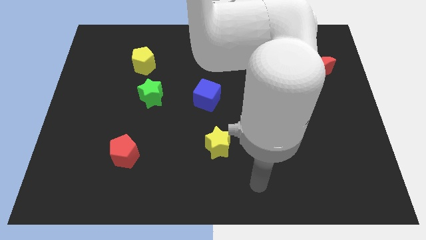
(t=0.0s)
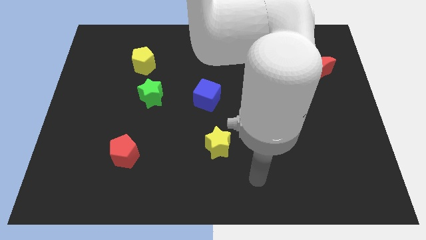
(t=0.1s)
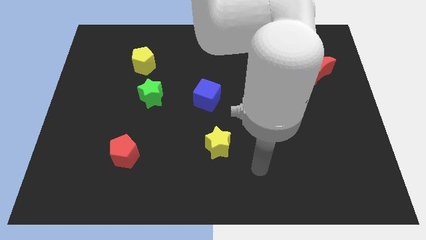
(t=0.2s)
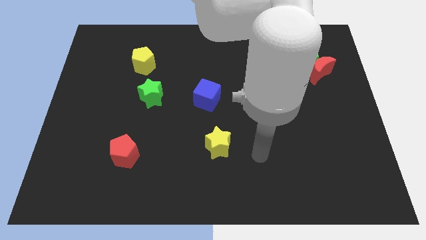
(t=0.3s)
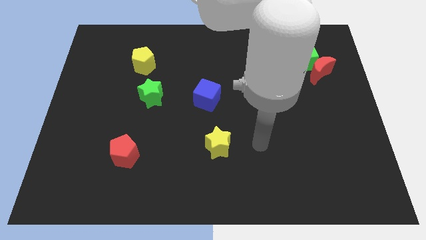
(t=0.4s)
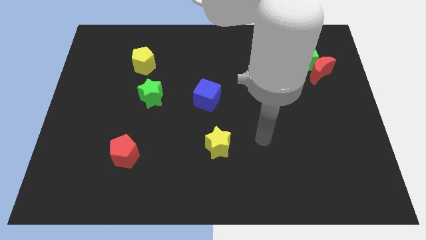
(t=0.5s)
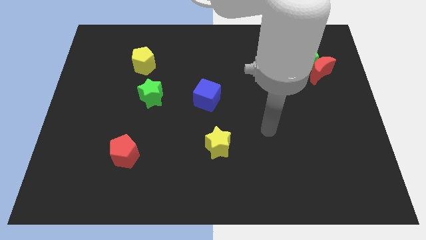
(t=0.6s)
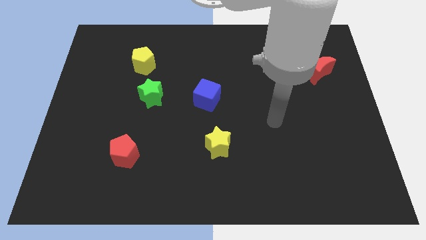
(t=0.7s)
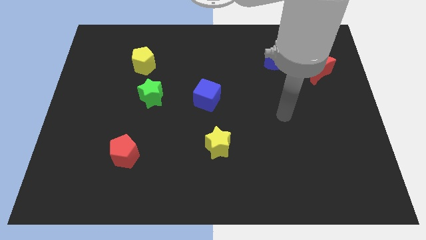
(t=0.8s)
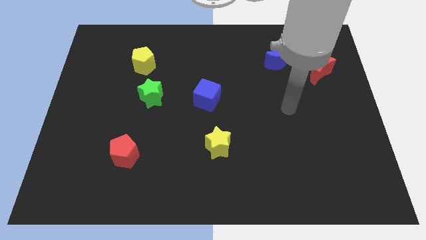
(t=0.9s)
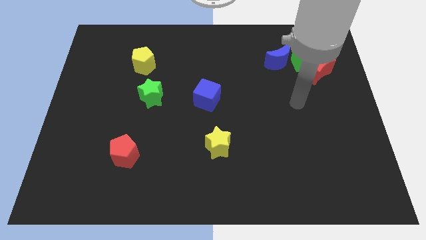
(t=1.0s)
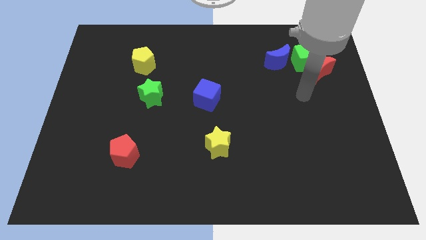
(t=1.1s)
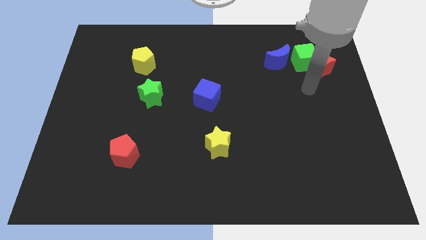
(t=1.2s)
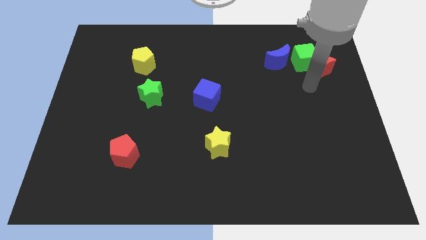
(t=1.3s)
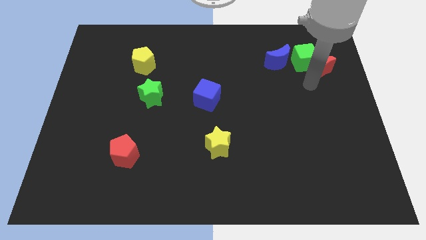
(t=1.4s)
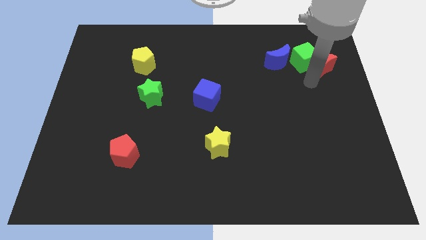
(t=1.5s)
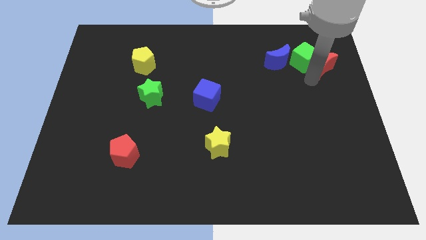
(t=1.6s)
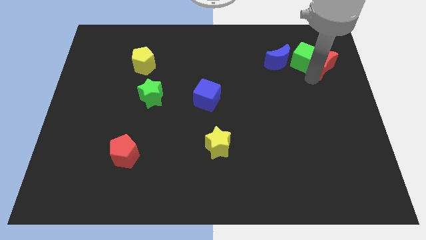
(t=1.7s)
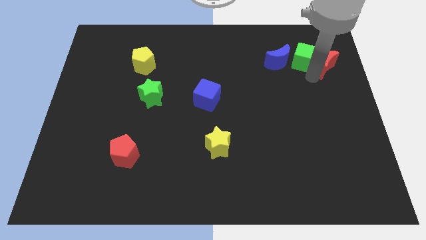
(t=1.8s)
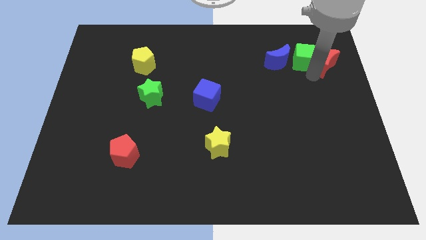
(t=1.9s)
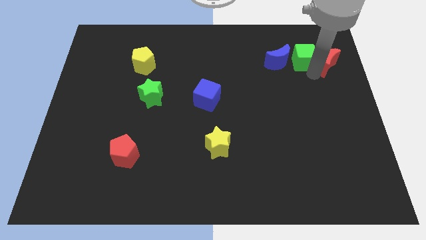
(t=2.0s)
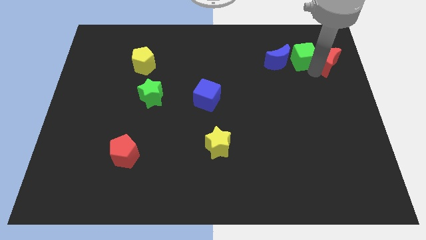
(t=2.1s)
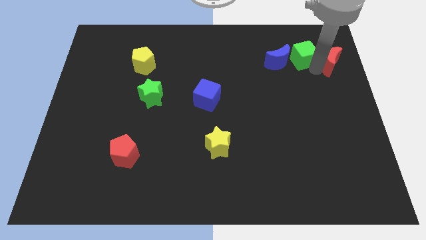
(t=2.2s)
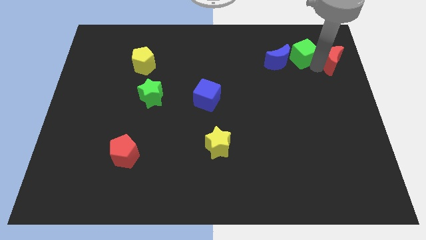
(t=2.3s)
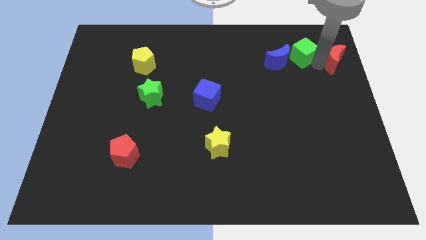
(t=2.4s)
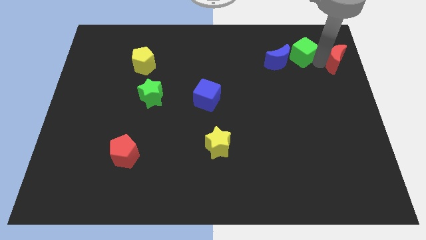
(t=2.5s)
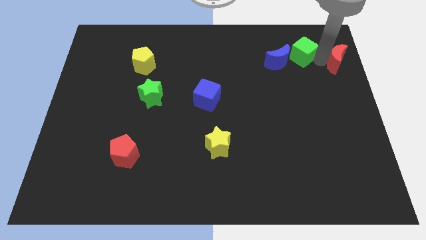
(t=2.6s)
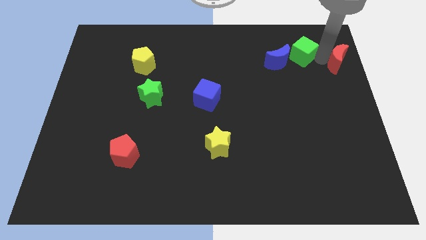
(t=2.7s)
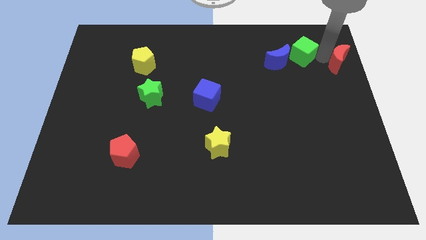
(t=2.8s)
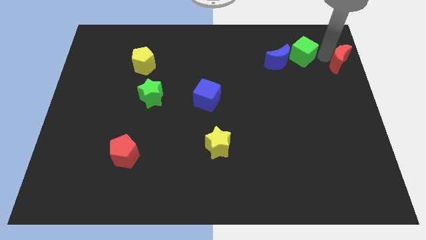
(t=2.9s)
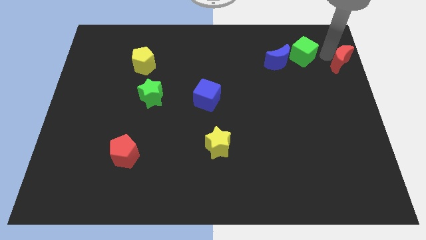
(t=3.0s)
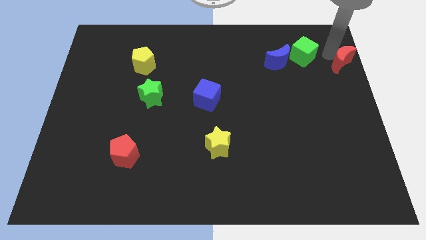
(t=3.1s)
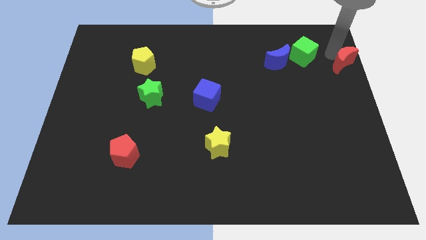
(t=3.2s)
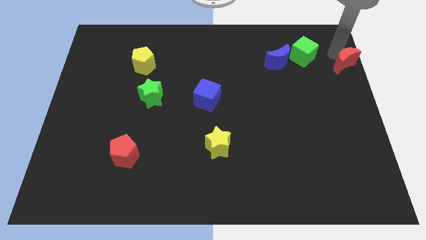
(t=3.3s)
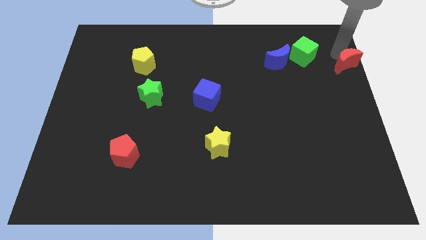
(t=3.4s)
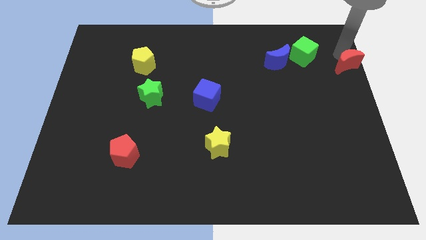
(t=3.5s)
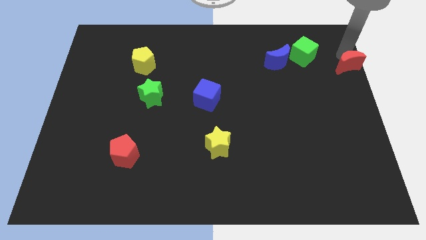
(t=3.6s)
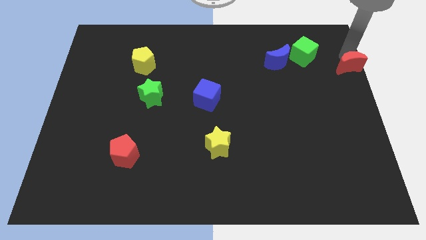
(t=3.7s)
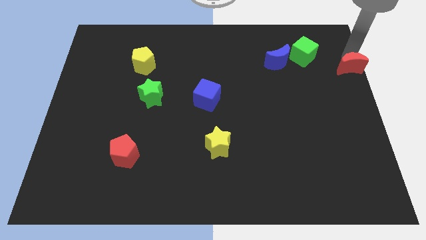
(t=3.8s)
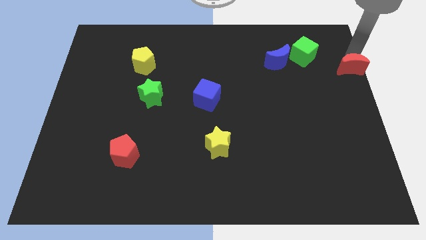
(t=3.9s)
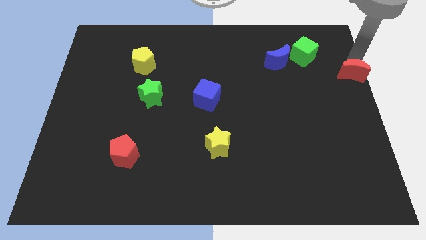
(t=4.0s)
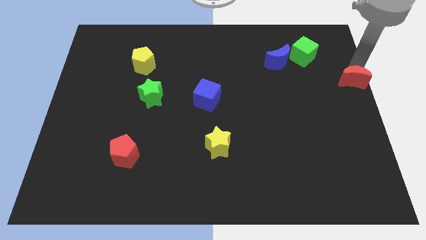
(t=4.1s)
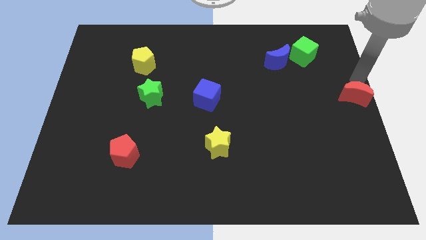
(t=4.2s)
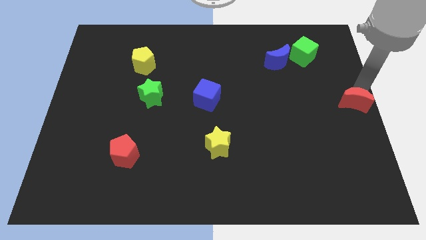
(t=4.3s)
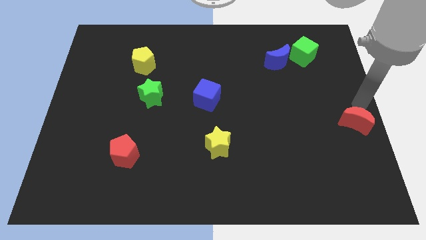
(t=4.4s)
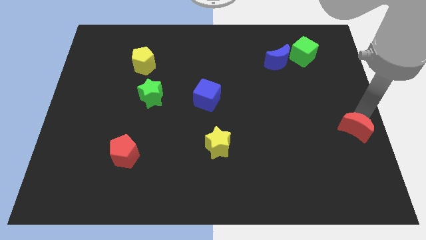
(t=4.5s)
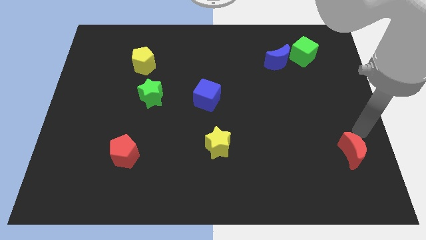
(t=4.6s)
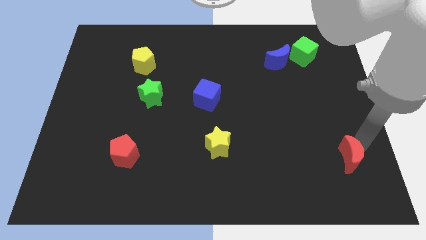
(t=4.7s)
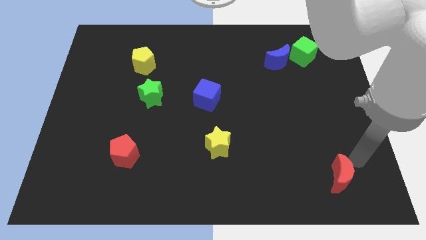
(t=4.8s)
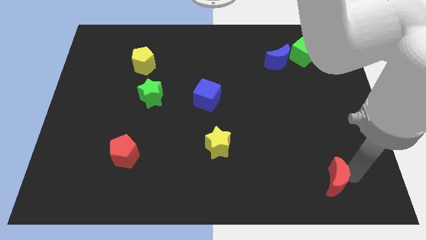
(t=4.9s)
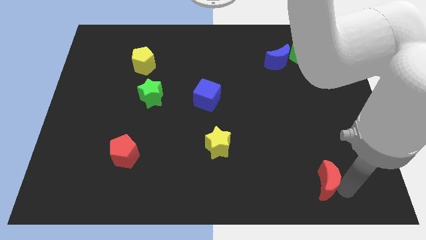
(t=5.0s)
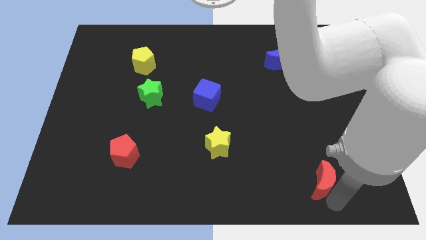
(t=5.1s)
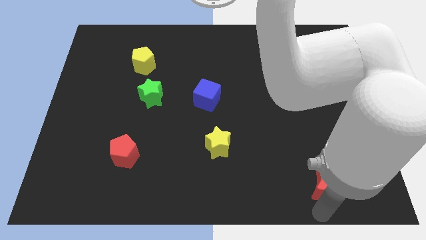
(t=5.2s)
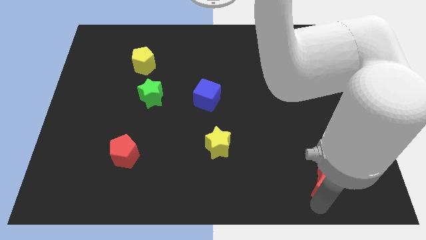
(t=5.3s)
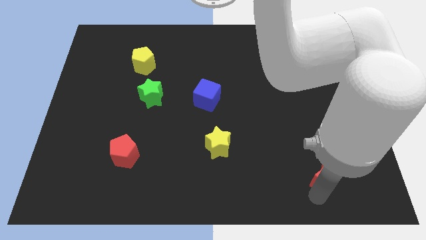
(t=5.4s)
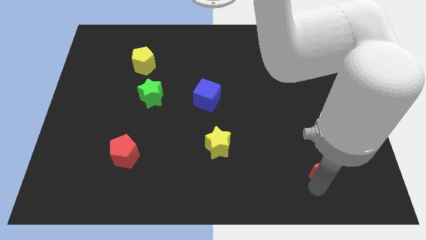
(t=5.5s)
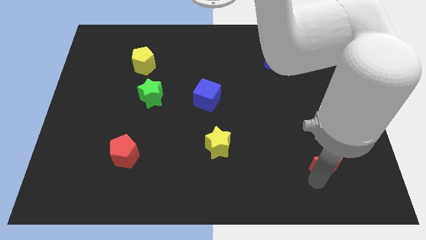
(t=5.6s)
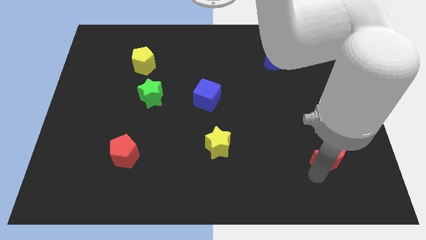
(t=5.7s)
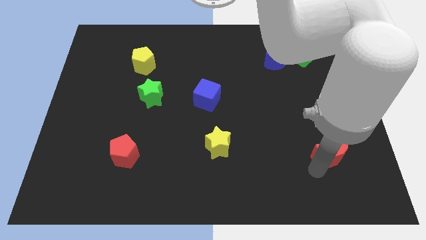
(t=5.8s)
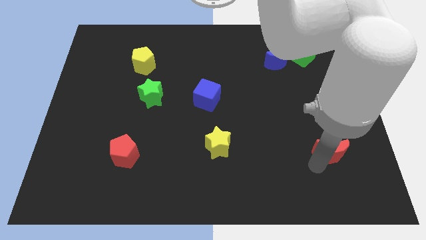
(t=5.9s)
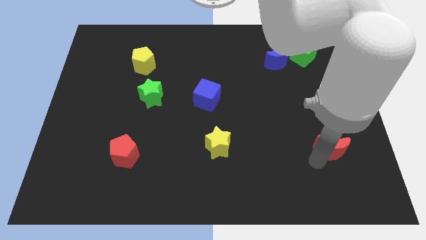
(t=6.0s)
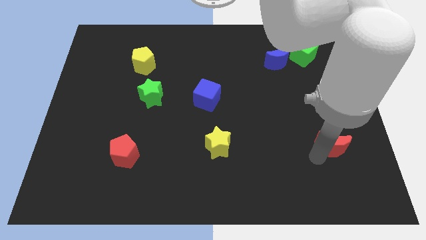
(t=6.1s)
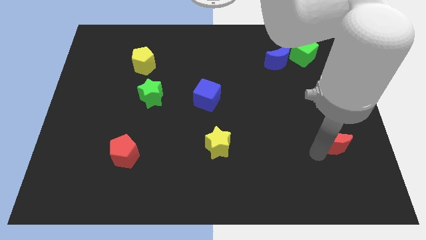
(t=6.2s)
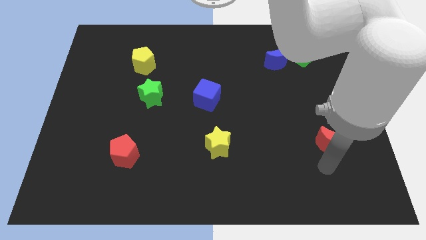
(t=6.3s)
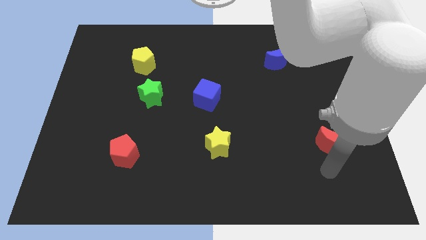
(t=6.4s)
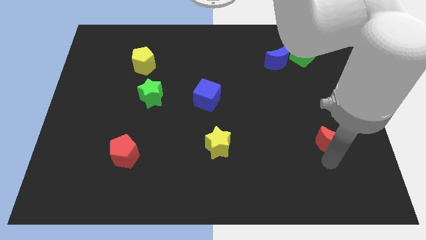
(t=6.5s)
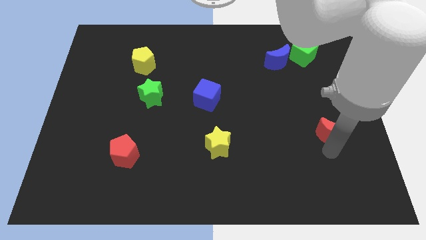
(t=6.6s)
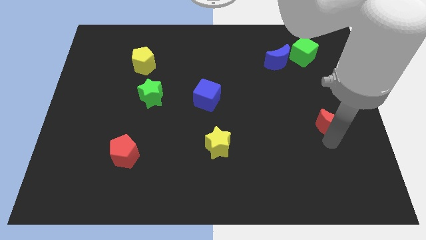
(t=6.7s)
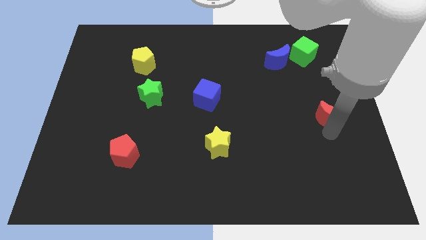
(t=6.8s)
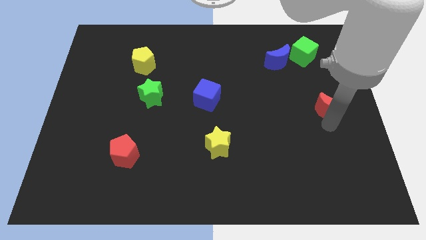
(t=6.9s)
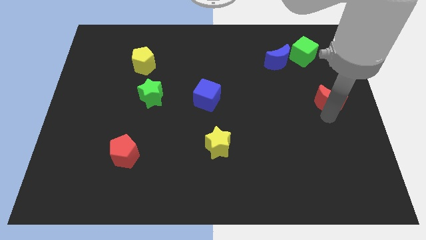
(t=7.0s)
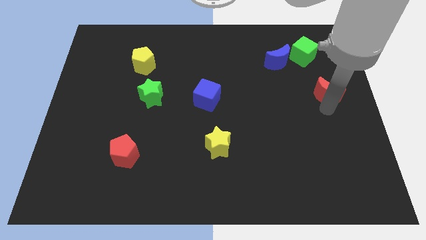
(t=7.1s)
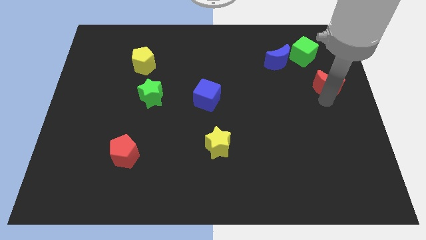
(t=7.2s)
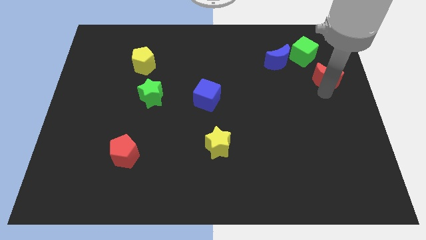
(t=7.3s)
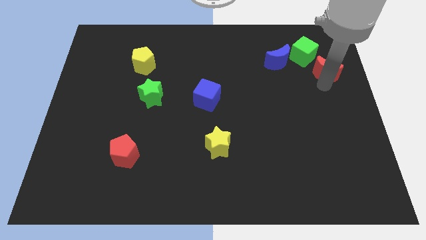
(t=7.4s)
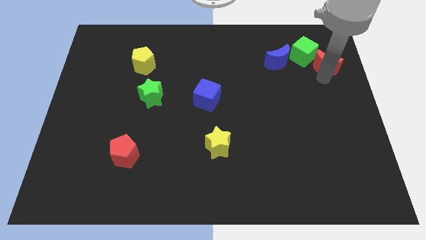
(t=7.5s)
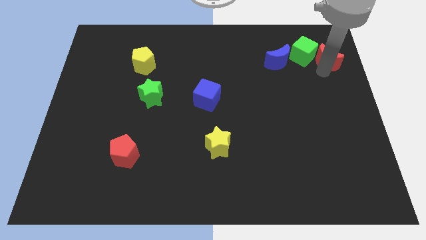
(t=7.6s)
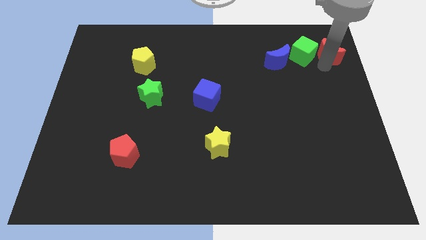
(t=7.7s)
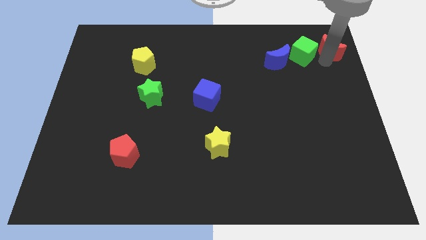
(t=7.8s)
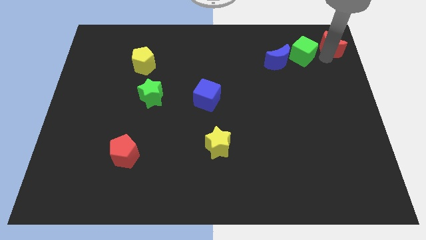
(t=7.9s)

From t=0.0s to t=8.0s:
push the red moon to the upper right corner
